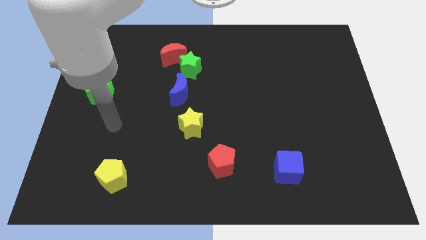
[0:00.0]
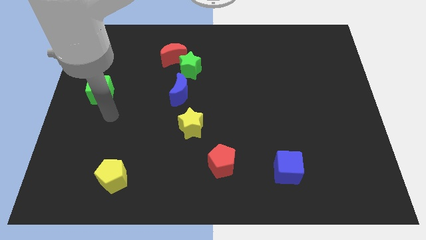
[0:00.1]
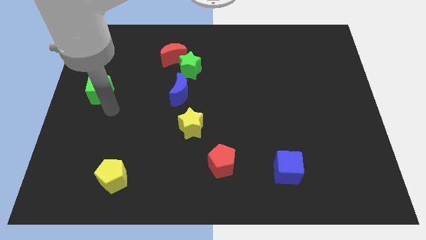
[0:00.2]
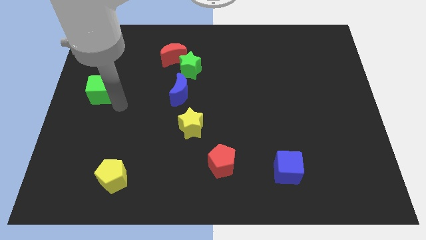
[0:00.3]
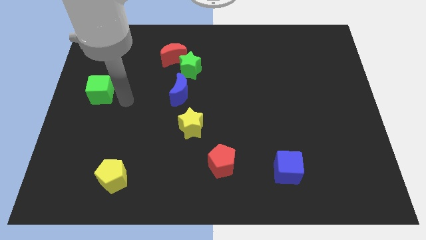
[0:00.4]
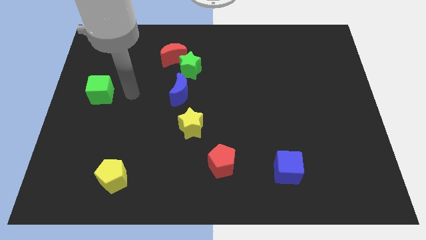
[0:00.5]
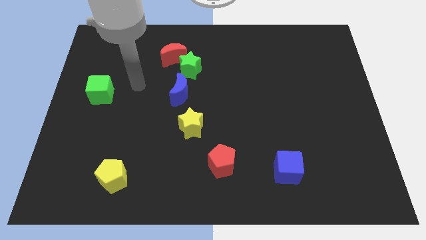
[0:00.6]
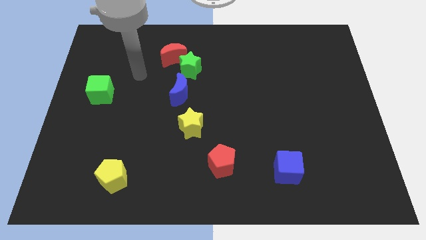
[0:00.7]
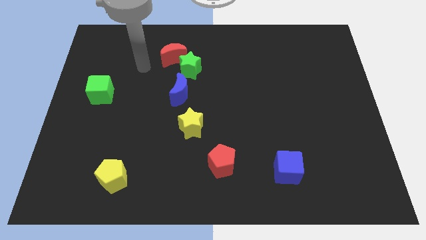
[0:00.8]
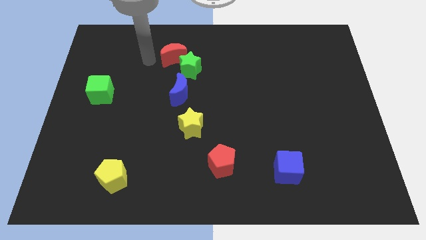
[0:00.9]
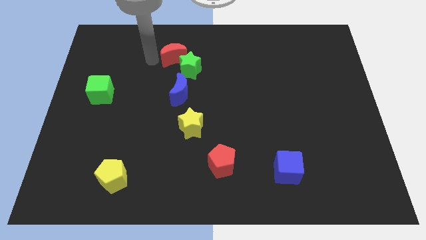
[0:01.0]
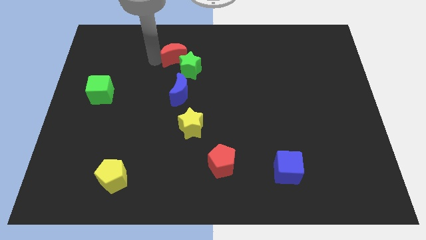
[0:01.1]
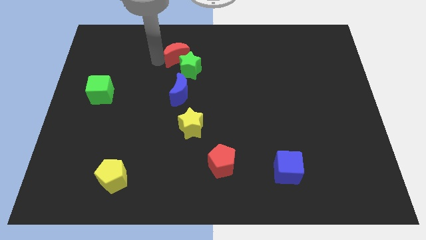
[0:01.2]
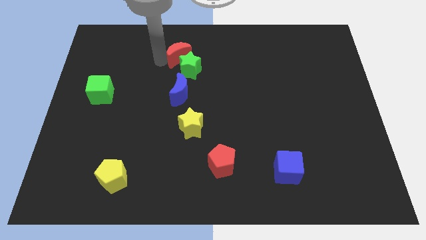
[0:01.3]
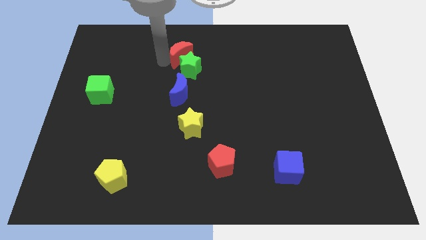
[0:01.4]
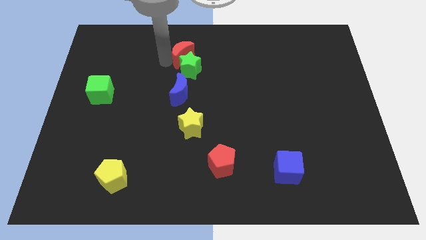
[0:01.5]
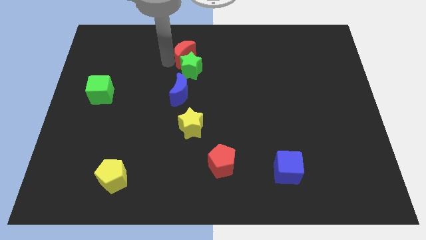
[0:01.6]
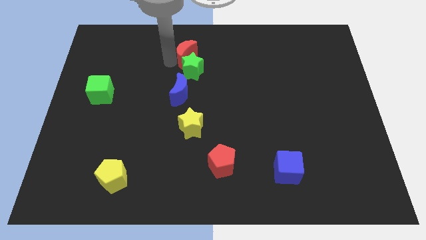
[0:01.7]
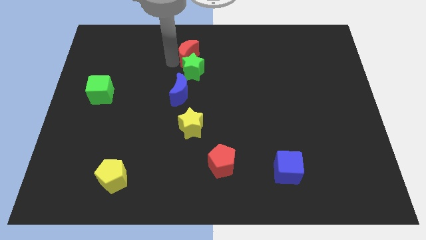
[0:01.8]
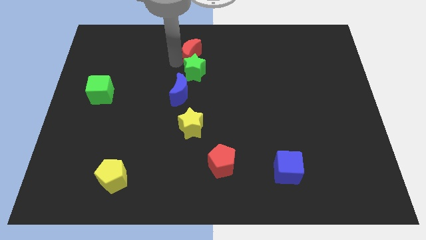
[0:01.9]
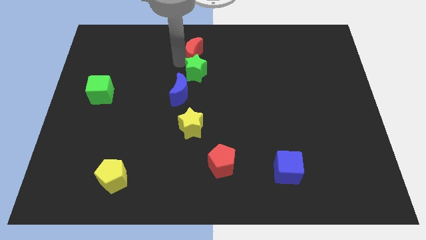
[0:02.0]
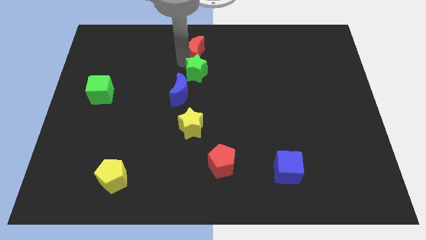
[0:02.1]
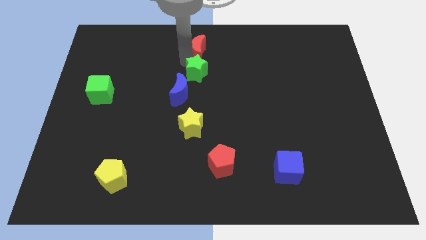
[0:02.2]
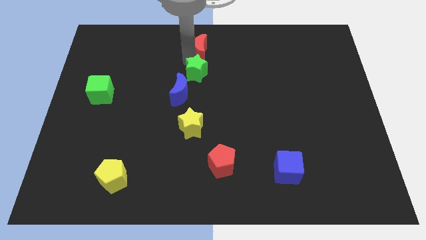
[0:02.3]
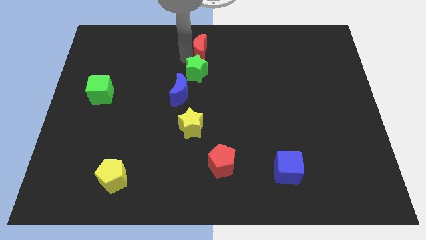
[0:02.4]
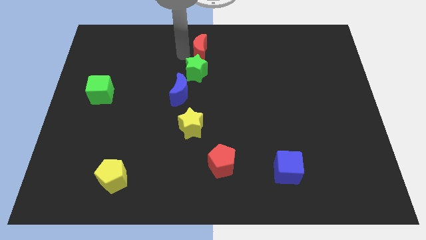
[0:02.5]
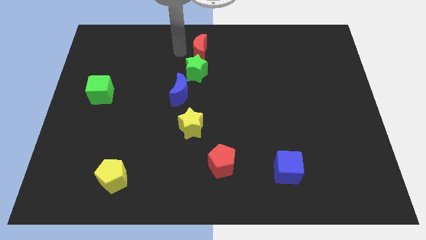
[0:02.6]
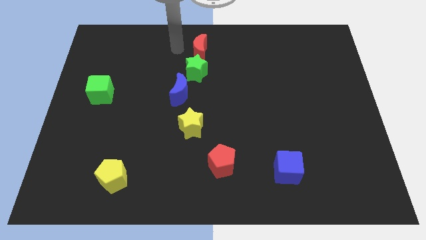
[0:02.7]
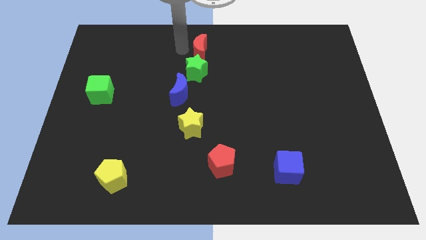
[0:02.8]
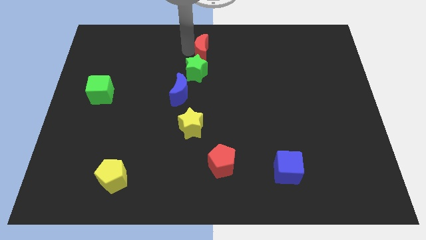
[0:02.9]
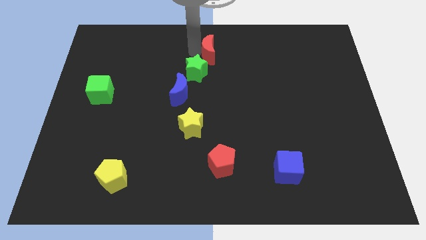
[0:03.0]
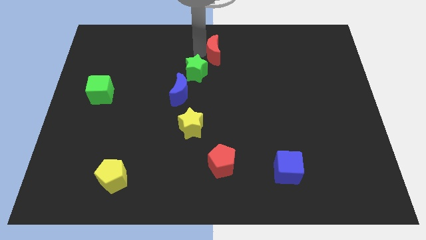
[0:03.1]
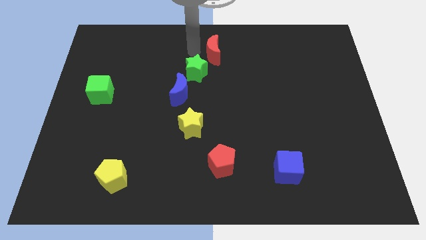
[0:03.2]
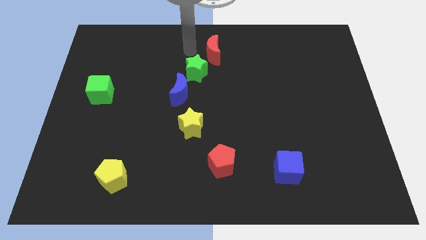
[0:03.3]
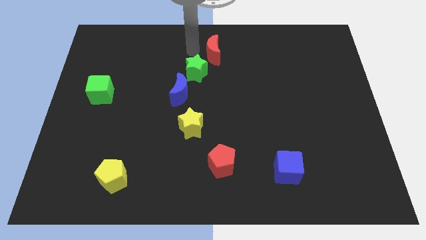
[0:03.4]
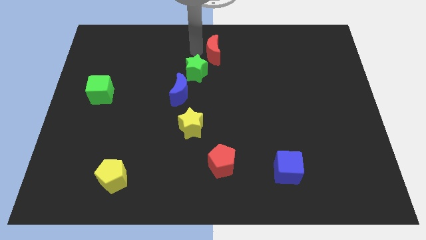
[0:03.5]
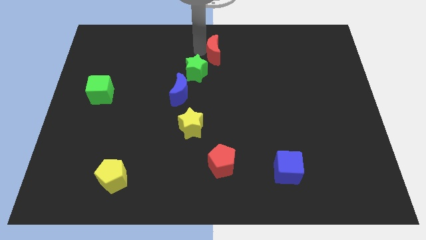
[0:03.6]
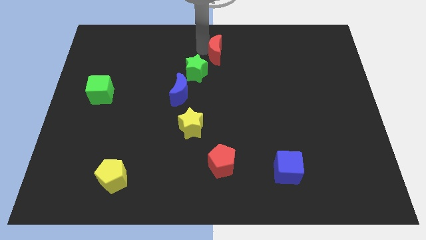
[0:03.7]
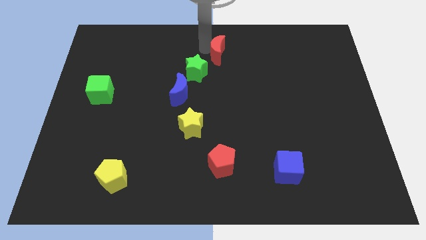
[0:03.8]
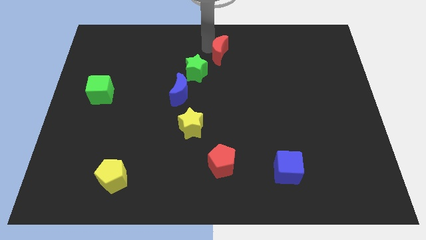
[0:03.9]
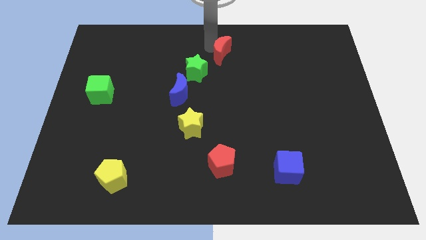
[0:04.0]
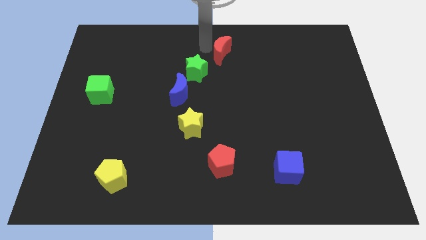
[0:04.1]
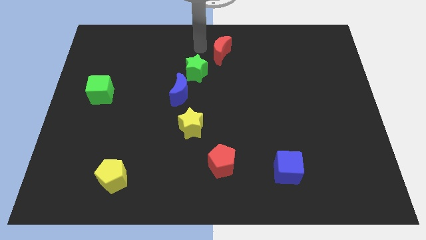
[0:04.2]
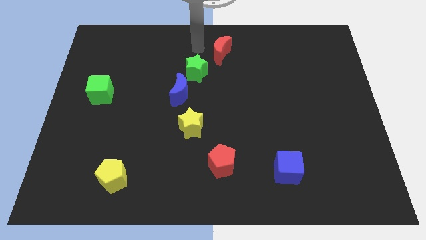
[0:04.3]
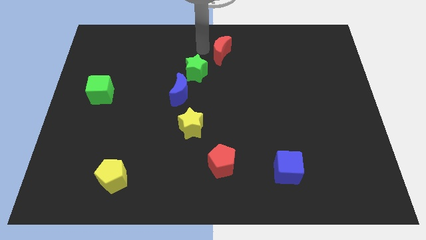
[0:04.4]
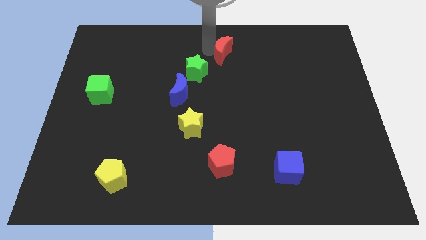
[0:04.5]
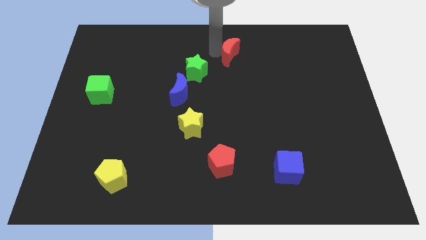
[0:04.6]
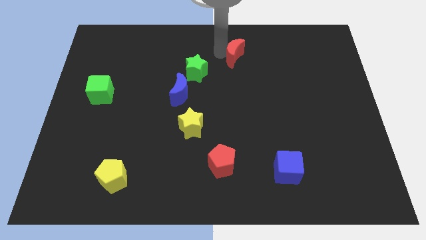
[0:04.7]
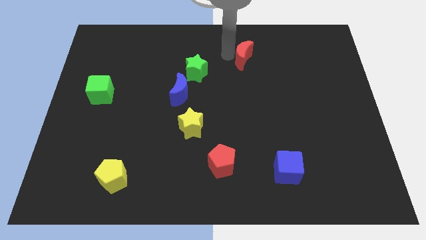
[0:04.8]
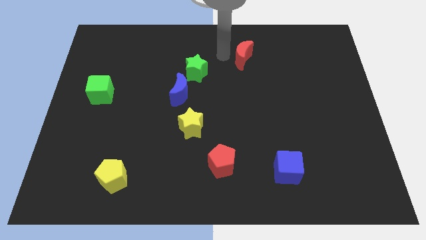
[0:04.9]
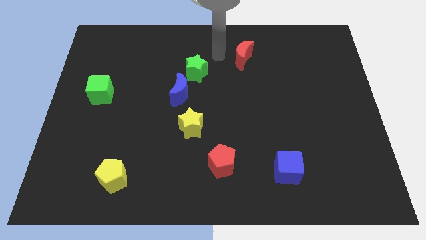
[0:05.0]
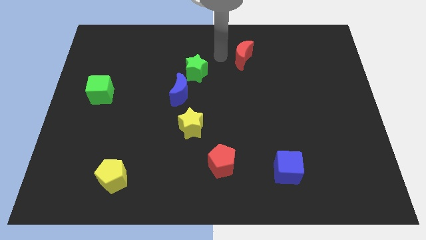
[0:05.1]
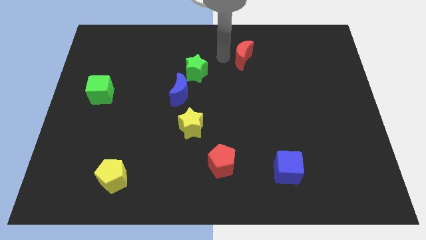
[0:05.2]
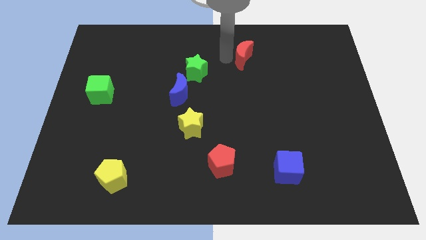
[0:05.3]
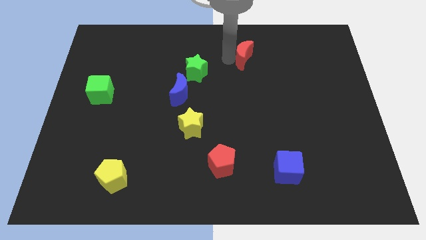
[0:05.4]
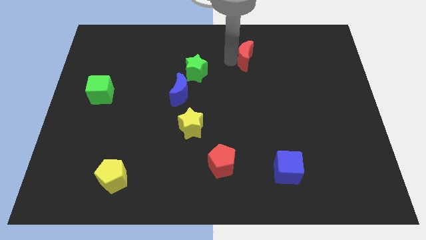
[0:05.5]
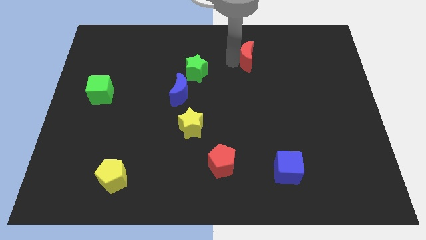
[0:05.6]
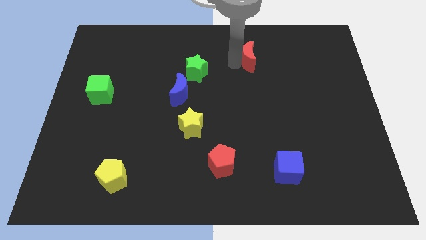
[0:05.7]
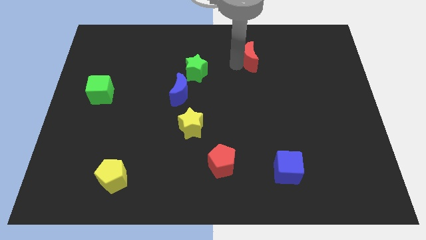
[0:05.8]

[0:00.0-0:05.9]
move the red moon to the right

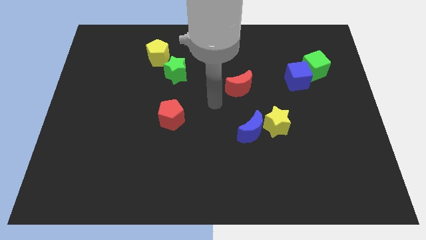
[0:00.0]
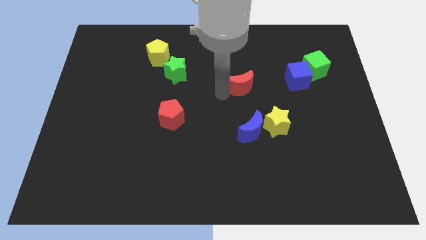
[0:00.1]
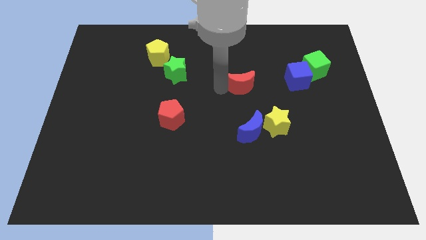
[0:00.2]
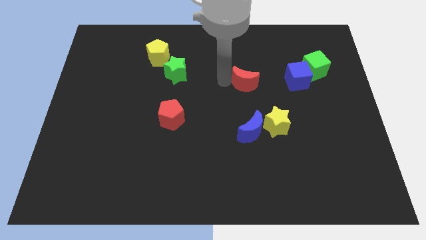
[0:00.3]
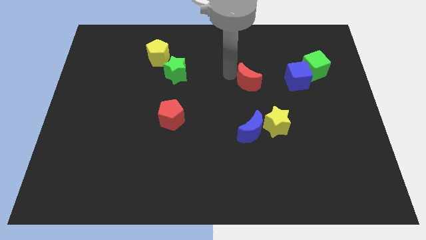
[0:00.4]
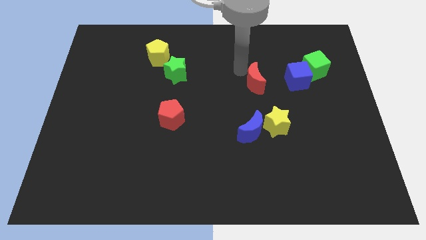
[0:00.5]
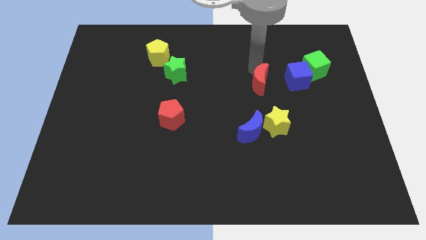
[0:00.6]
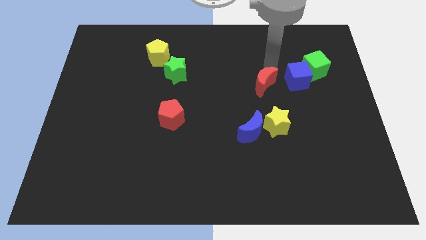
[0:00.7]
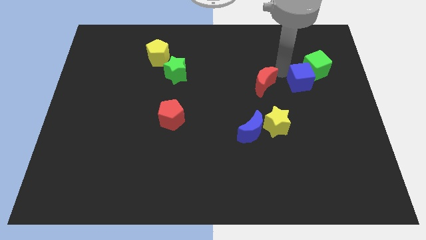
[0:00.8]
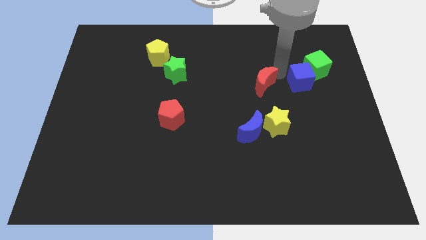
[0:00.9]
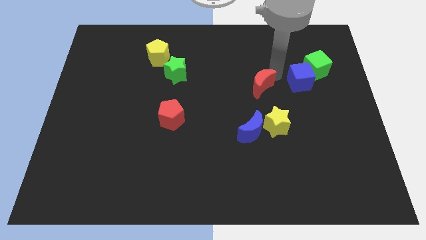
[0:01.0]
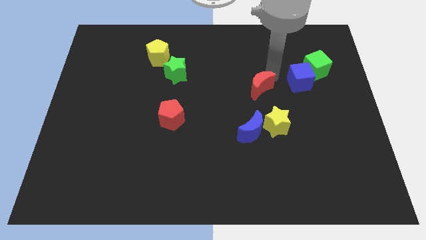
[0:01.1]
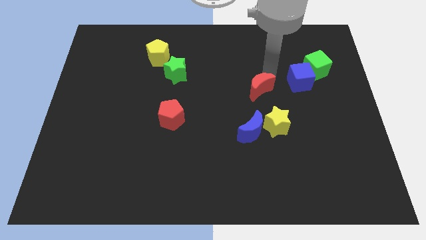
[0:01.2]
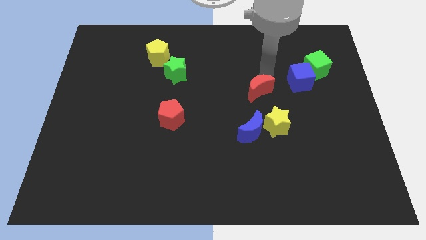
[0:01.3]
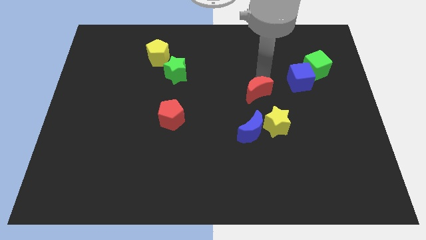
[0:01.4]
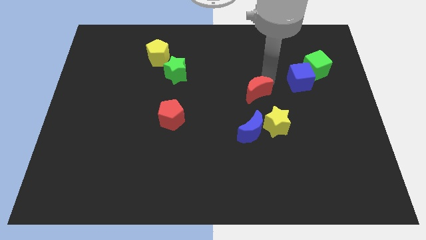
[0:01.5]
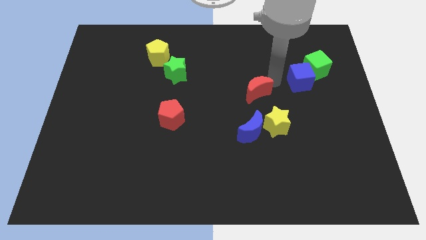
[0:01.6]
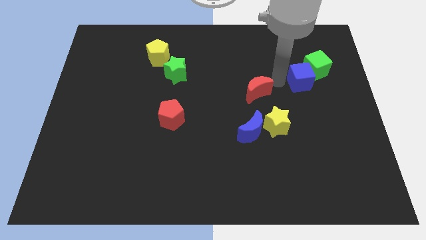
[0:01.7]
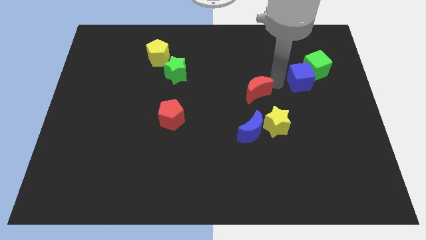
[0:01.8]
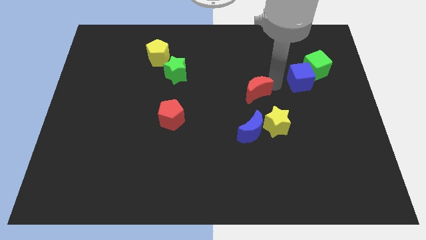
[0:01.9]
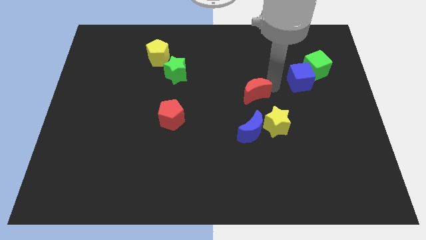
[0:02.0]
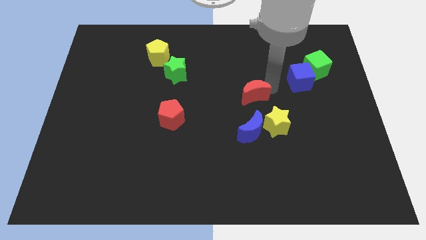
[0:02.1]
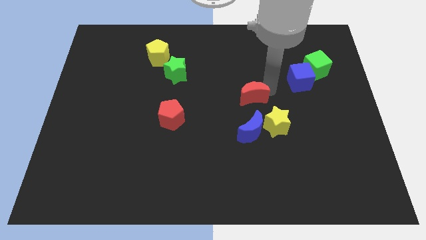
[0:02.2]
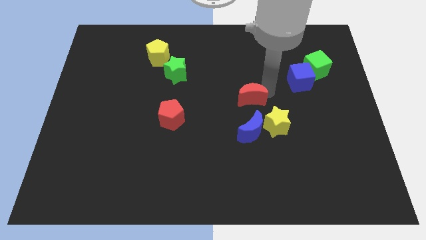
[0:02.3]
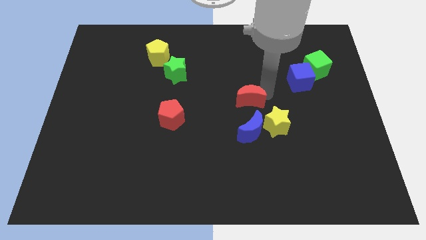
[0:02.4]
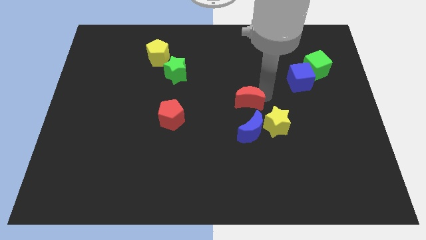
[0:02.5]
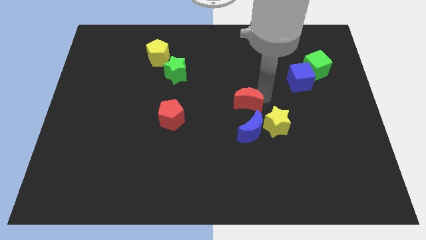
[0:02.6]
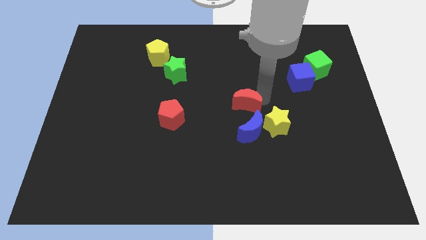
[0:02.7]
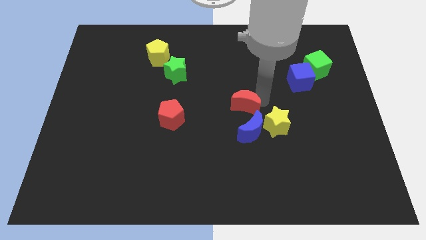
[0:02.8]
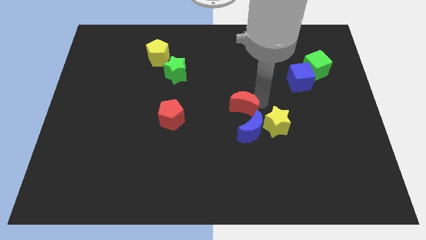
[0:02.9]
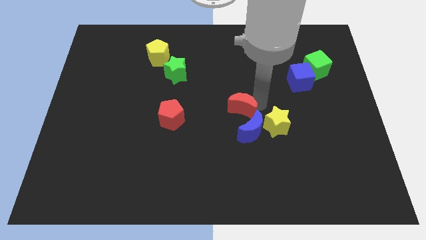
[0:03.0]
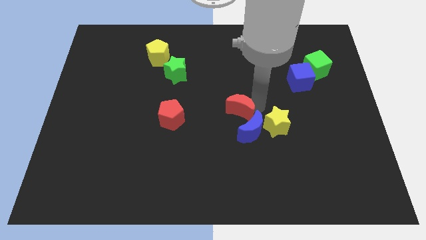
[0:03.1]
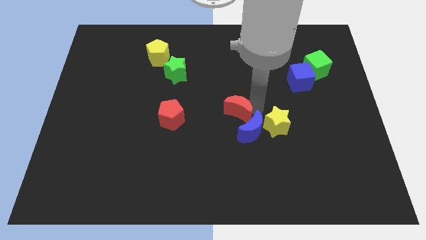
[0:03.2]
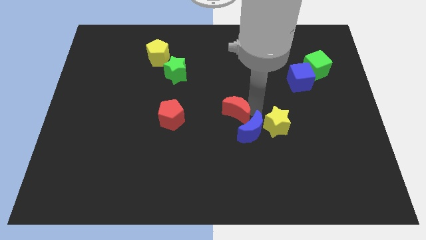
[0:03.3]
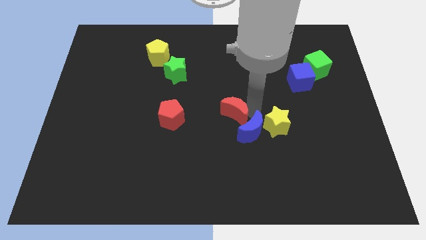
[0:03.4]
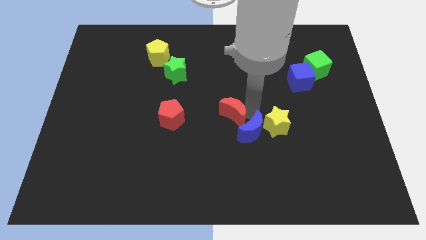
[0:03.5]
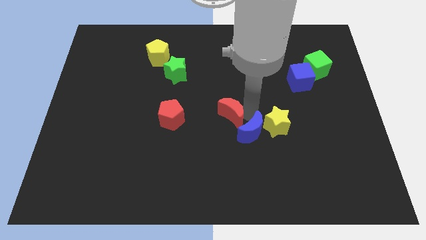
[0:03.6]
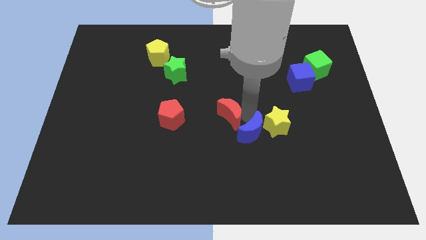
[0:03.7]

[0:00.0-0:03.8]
slightly slide the red moon diagonally downwards and left
